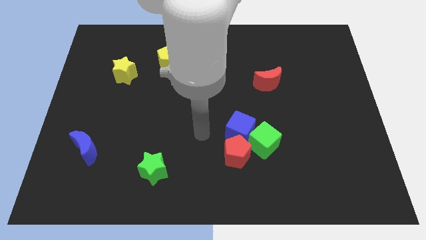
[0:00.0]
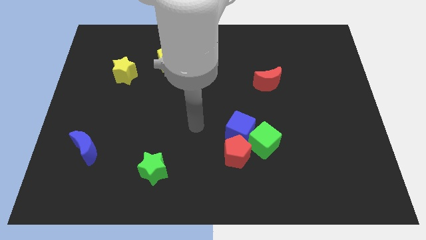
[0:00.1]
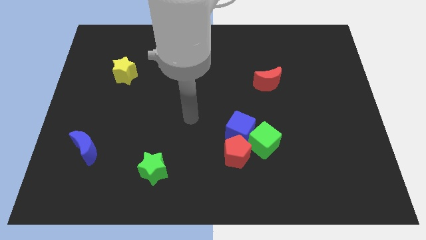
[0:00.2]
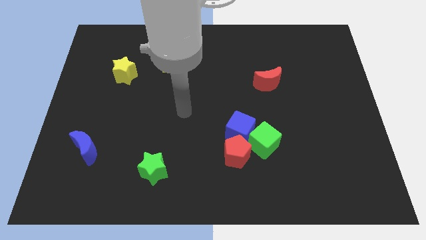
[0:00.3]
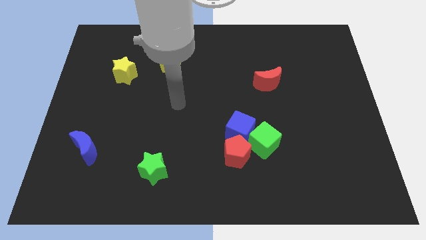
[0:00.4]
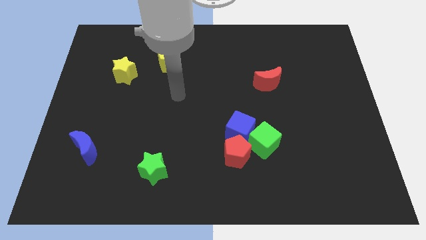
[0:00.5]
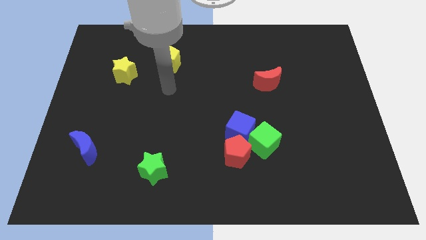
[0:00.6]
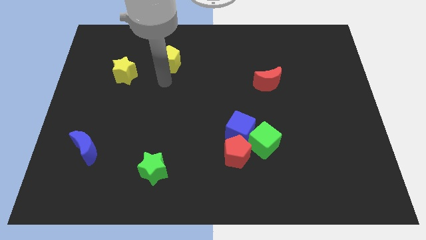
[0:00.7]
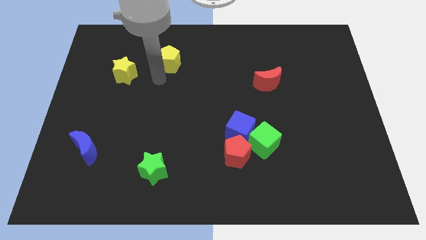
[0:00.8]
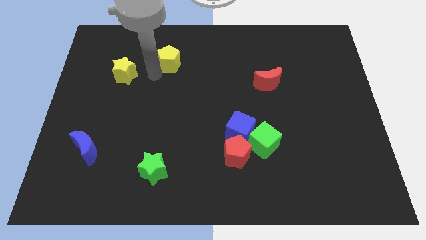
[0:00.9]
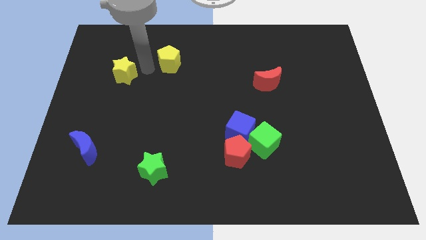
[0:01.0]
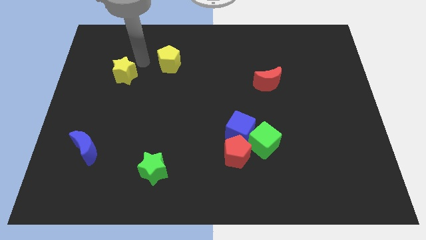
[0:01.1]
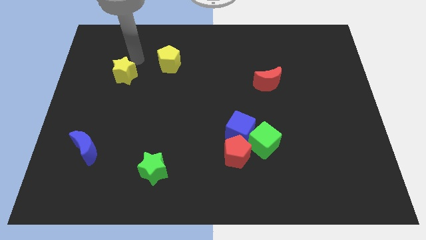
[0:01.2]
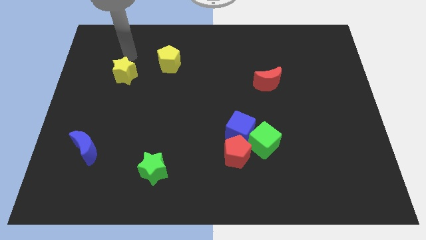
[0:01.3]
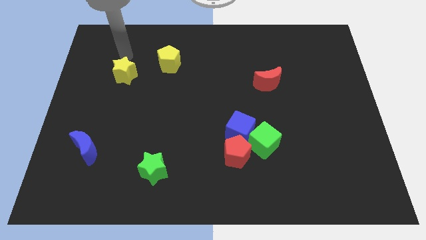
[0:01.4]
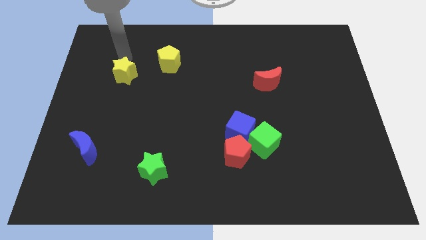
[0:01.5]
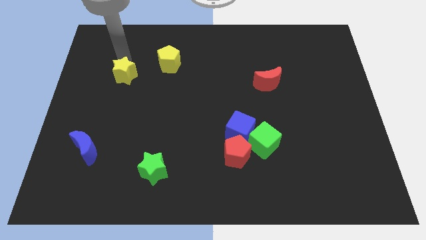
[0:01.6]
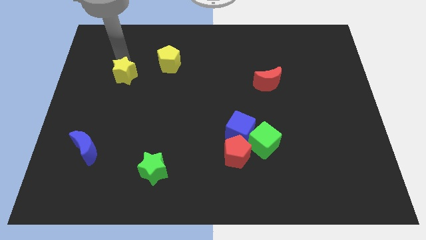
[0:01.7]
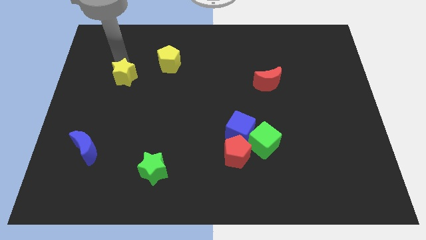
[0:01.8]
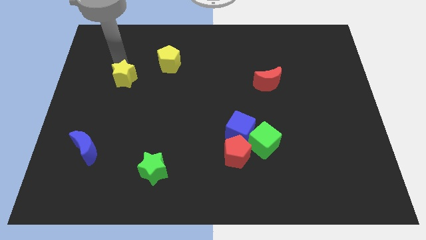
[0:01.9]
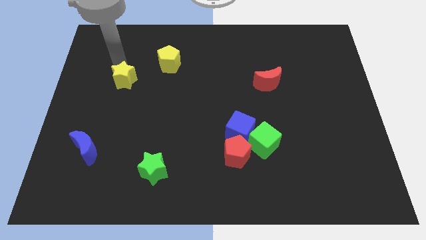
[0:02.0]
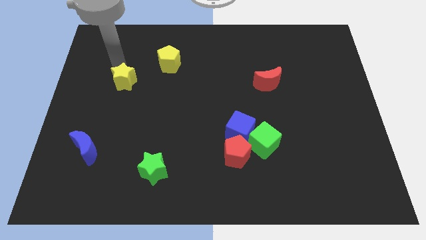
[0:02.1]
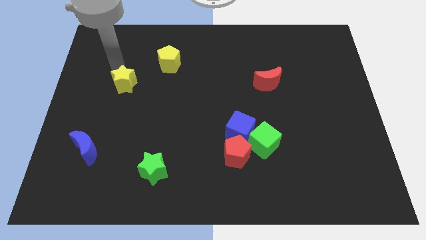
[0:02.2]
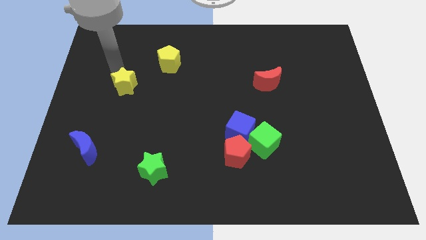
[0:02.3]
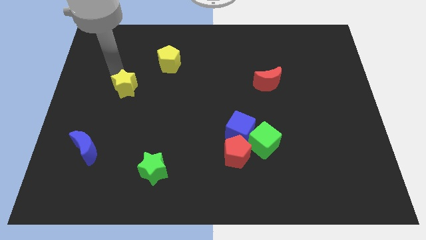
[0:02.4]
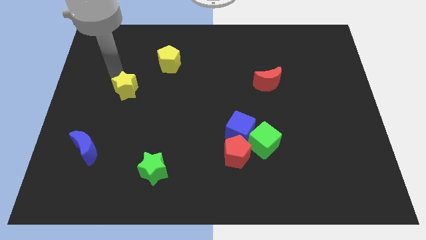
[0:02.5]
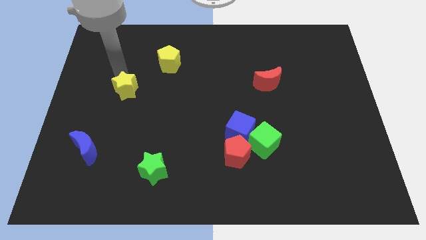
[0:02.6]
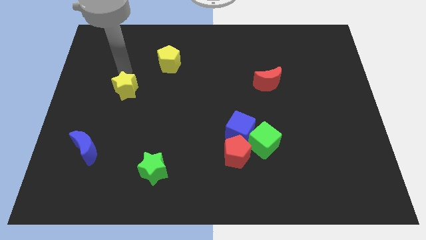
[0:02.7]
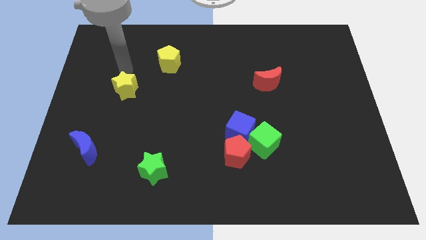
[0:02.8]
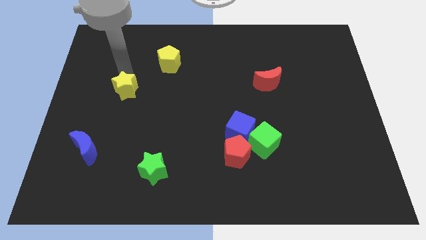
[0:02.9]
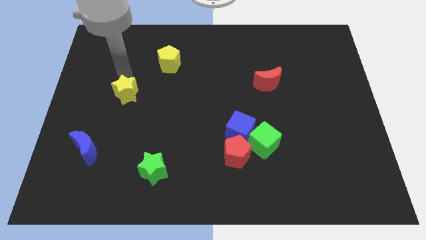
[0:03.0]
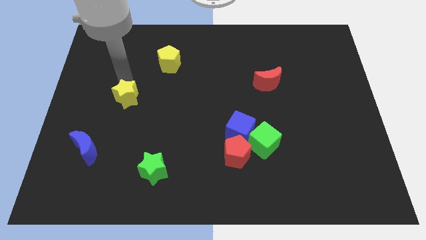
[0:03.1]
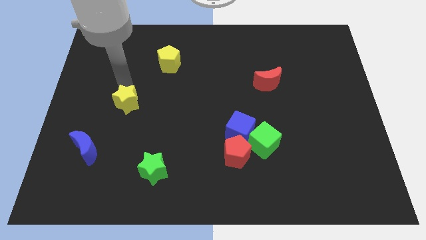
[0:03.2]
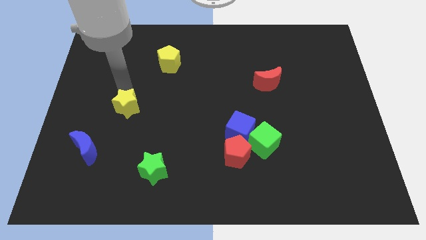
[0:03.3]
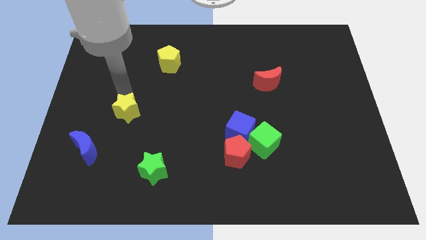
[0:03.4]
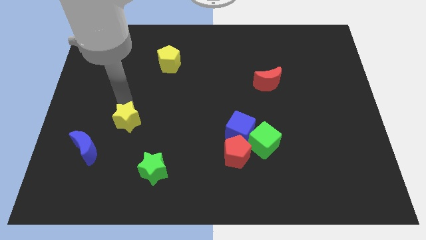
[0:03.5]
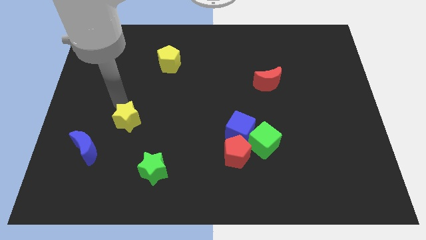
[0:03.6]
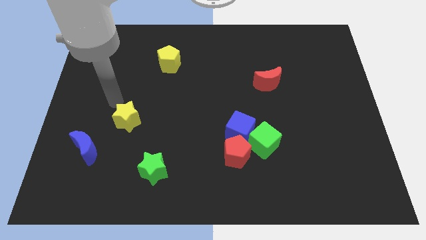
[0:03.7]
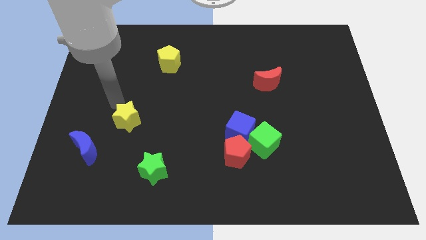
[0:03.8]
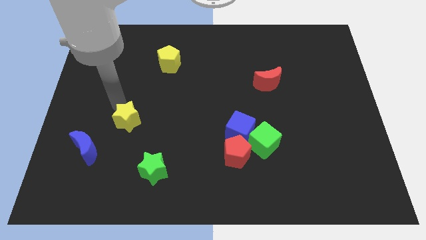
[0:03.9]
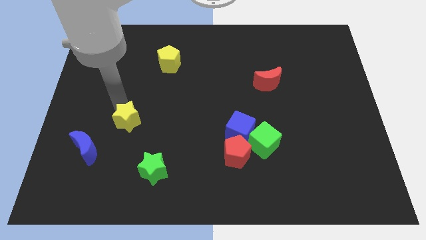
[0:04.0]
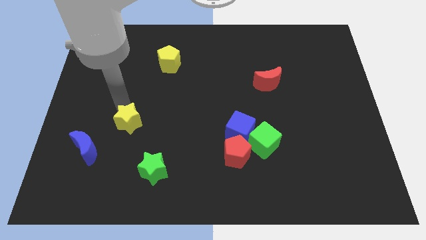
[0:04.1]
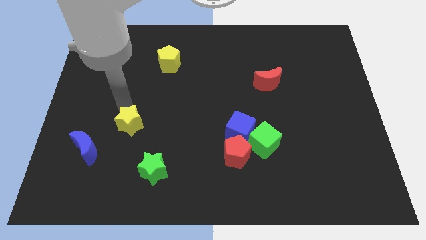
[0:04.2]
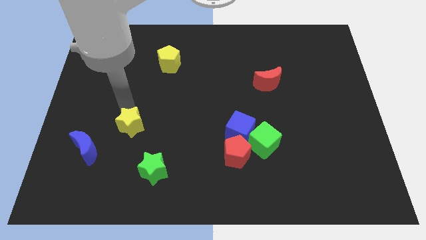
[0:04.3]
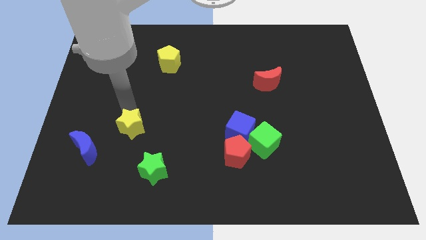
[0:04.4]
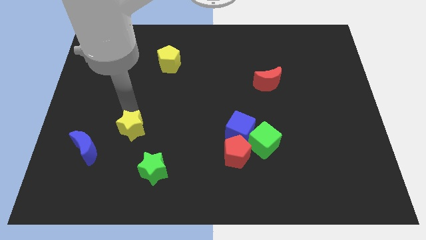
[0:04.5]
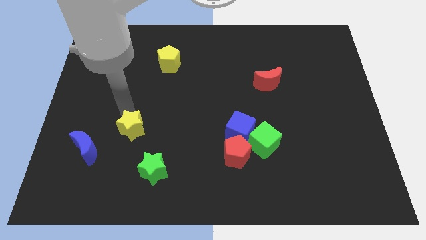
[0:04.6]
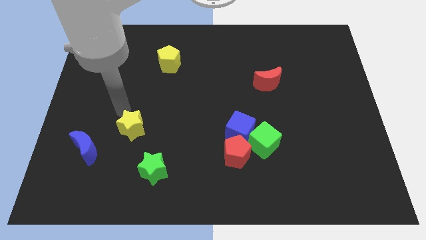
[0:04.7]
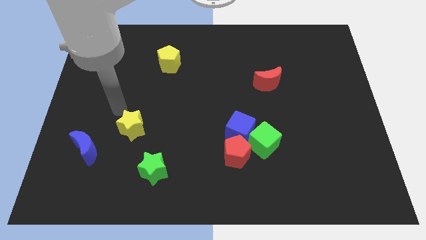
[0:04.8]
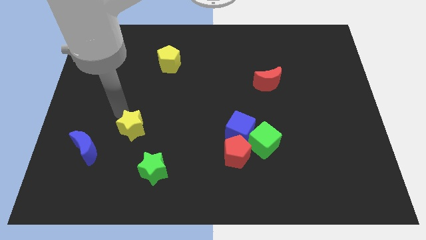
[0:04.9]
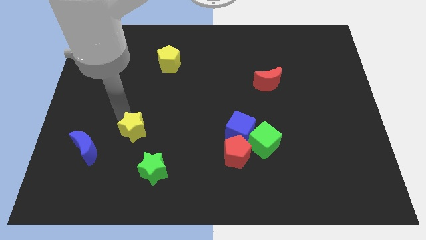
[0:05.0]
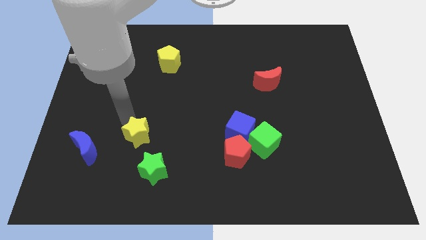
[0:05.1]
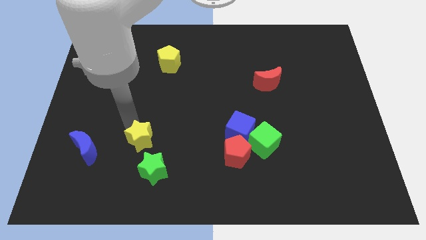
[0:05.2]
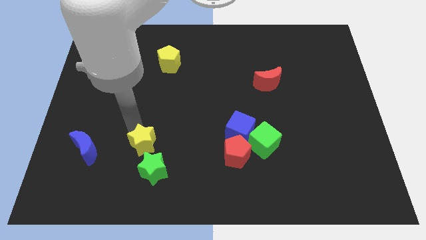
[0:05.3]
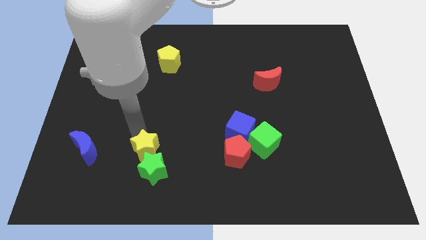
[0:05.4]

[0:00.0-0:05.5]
move the yellow star close to the green star

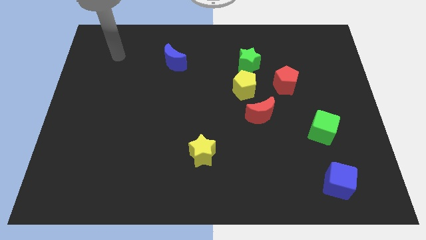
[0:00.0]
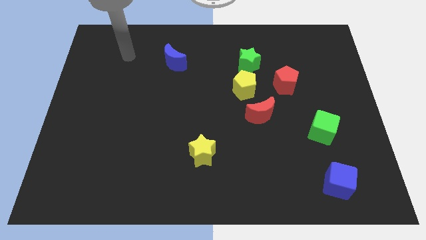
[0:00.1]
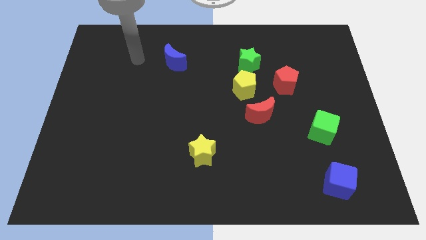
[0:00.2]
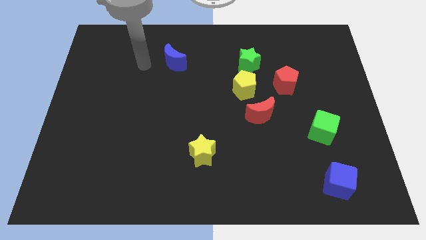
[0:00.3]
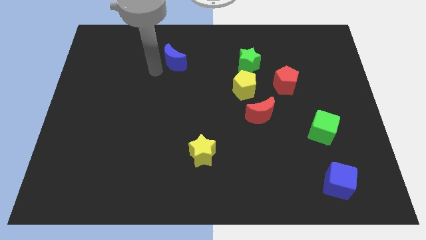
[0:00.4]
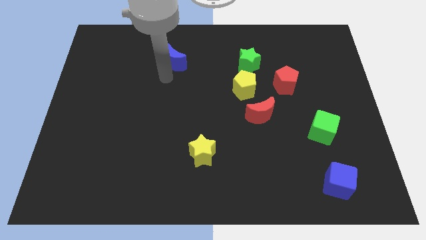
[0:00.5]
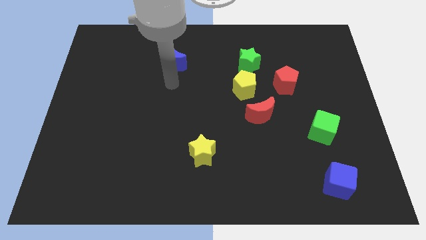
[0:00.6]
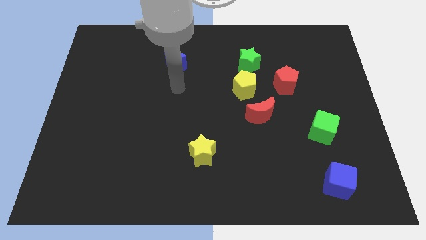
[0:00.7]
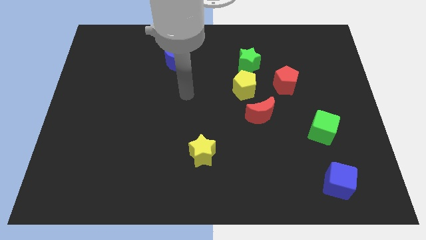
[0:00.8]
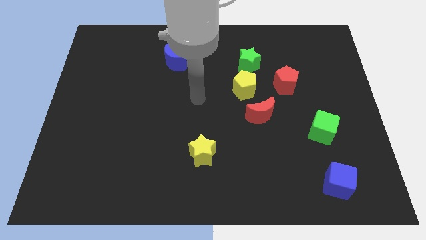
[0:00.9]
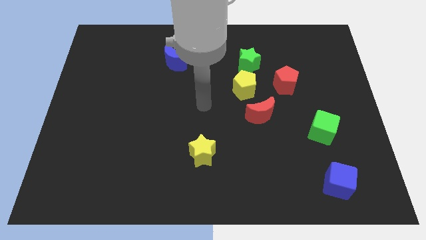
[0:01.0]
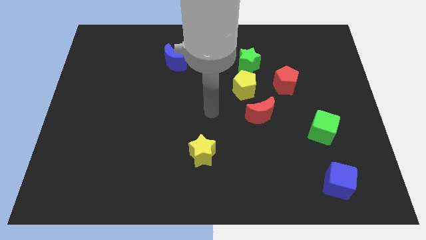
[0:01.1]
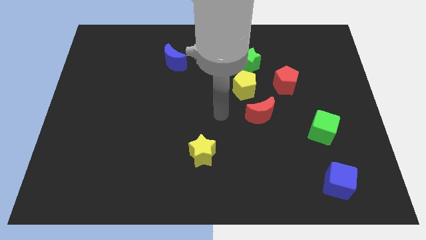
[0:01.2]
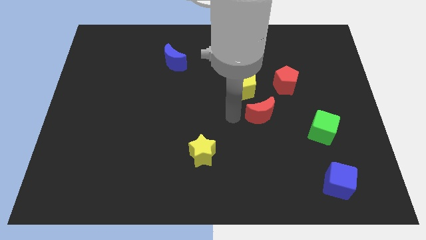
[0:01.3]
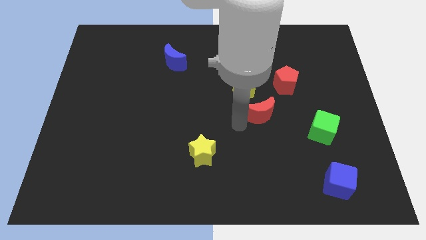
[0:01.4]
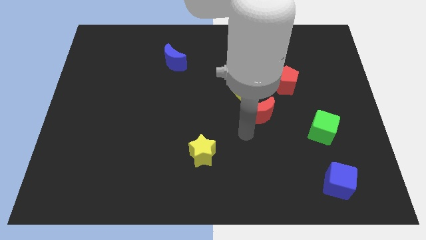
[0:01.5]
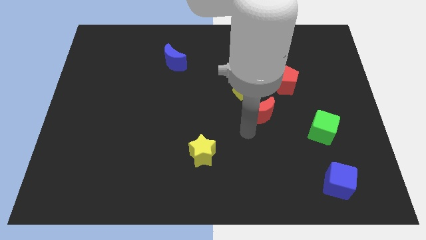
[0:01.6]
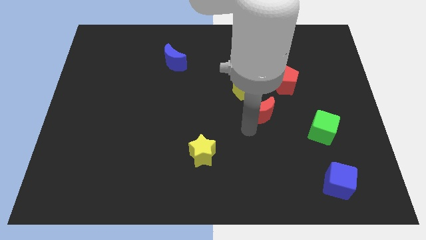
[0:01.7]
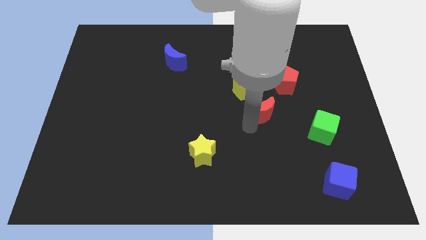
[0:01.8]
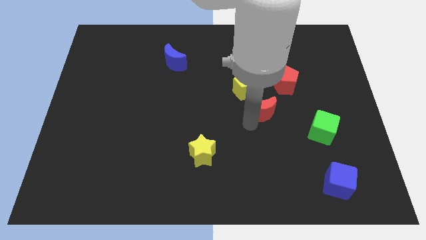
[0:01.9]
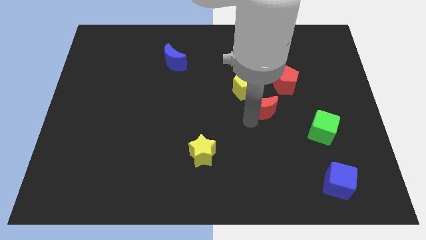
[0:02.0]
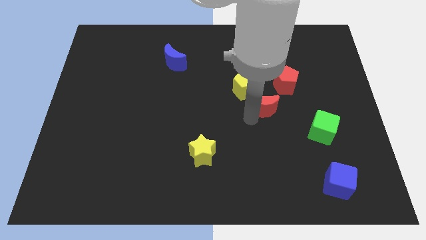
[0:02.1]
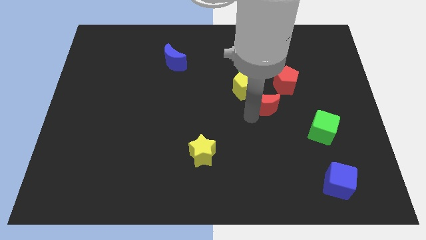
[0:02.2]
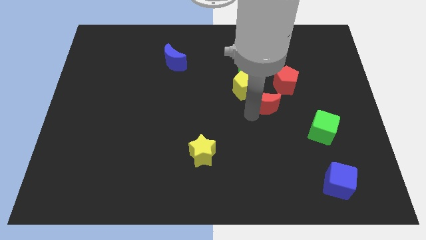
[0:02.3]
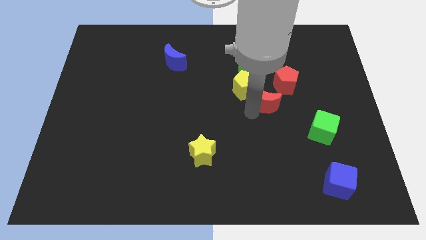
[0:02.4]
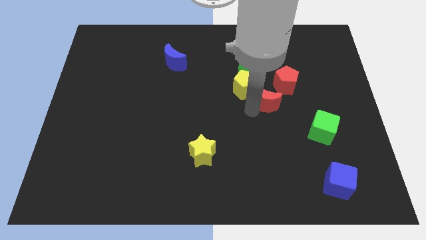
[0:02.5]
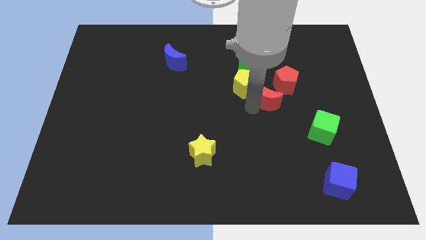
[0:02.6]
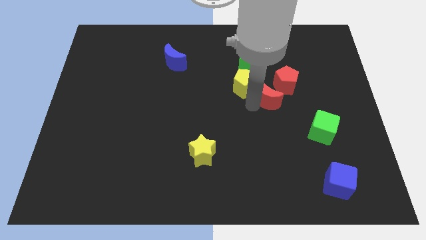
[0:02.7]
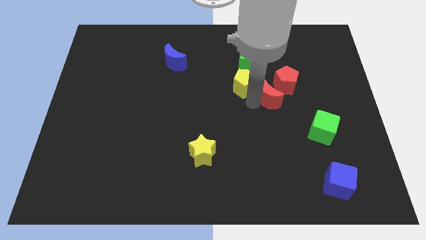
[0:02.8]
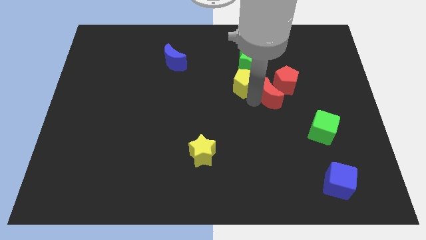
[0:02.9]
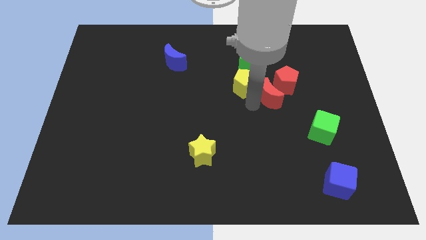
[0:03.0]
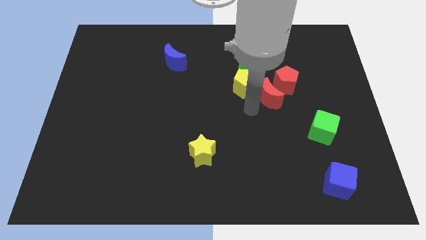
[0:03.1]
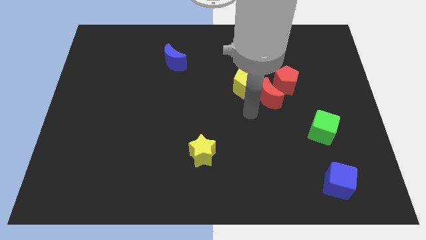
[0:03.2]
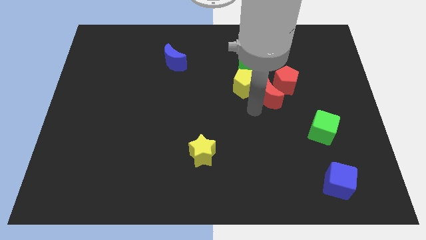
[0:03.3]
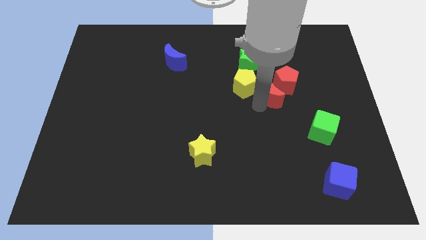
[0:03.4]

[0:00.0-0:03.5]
put the red moon to the red pentagon
